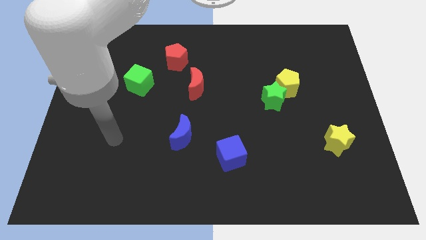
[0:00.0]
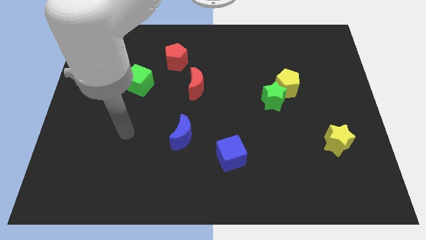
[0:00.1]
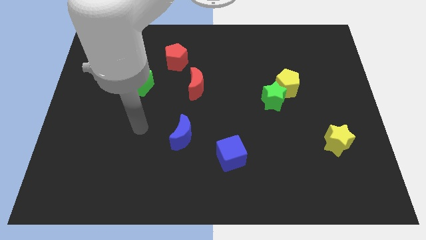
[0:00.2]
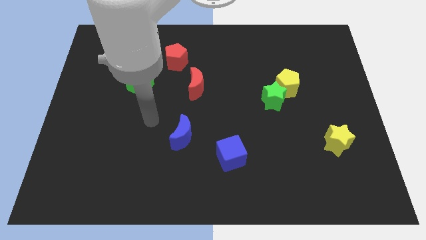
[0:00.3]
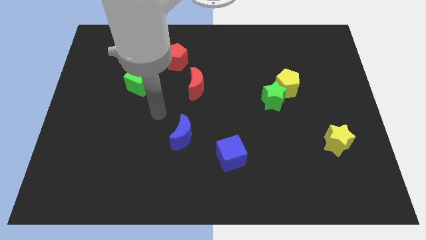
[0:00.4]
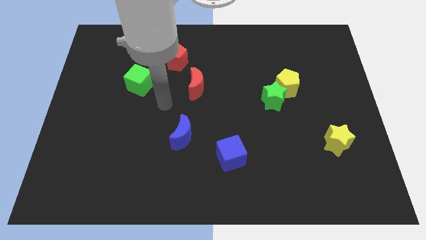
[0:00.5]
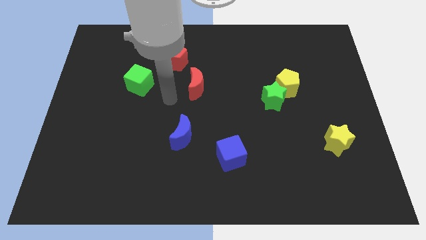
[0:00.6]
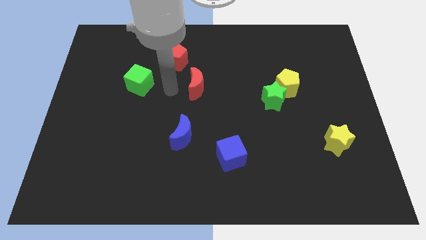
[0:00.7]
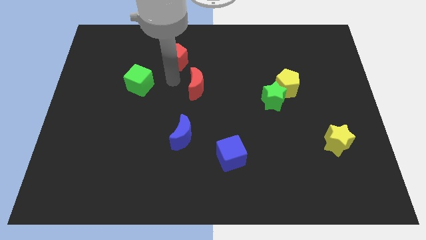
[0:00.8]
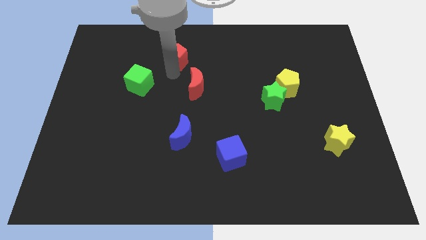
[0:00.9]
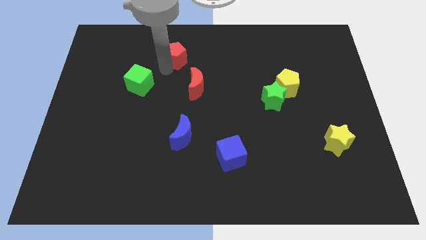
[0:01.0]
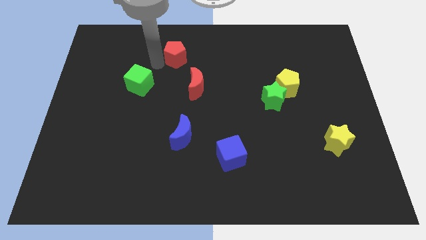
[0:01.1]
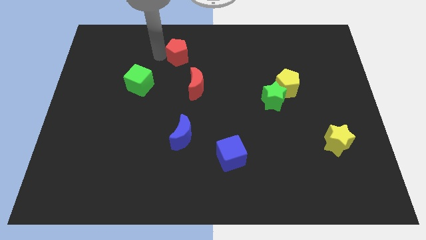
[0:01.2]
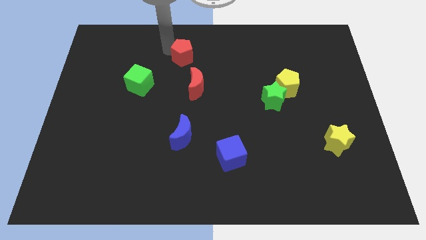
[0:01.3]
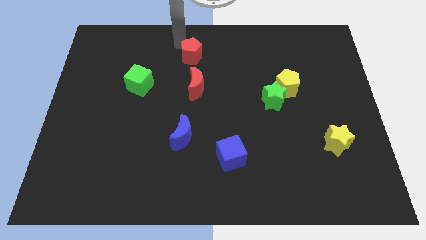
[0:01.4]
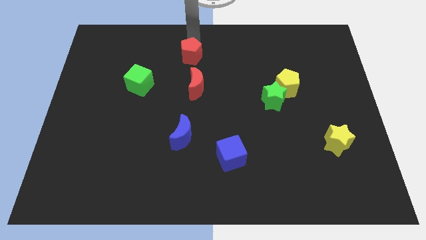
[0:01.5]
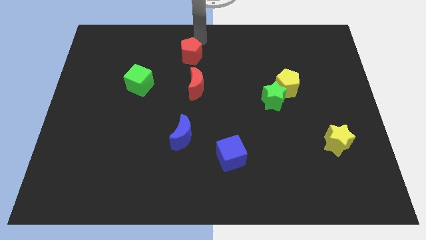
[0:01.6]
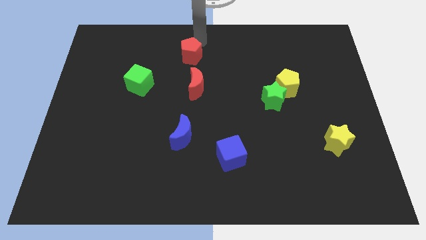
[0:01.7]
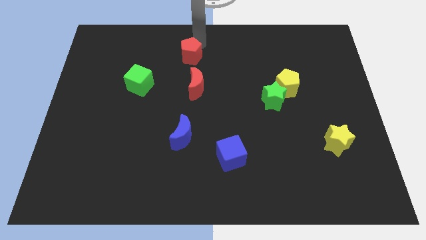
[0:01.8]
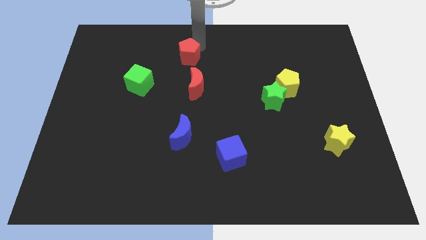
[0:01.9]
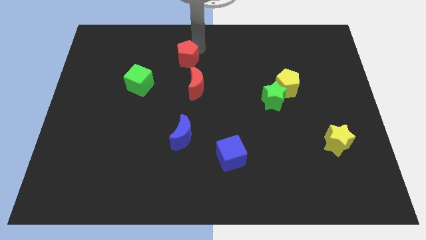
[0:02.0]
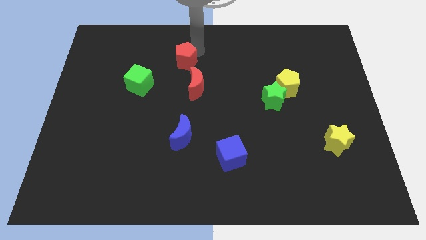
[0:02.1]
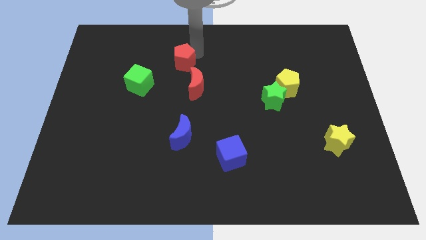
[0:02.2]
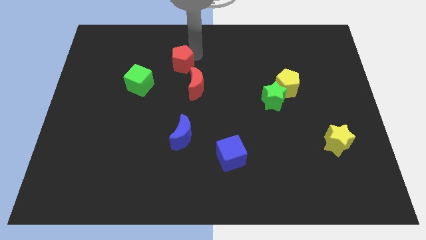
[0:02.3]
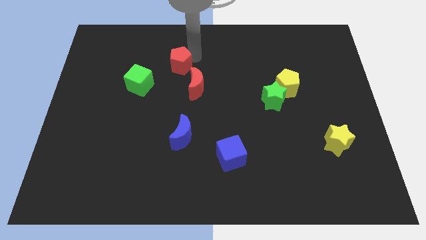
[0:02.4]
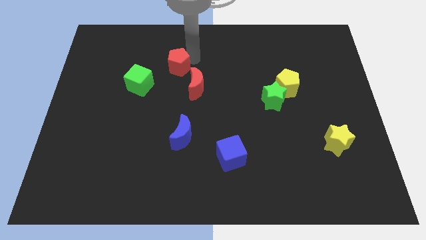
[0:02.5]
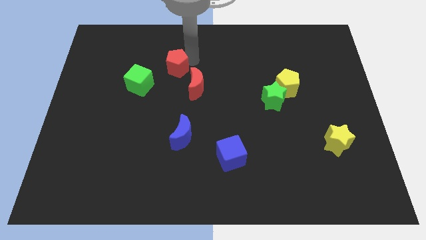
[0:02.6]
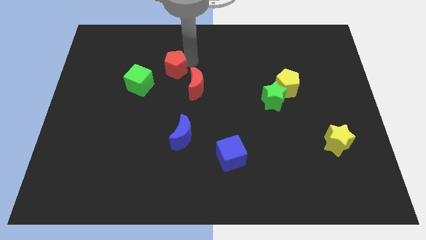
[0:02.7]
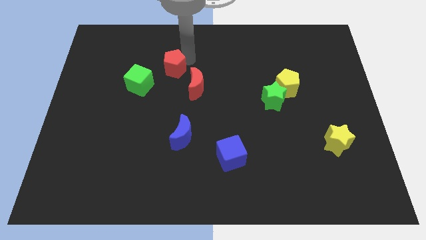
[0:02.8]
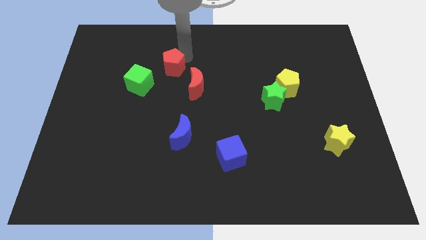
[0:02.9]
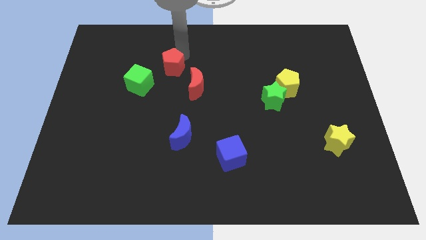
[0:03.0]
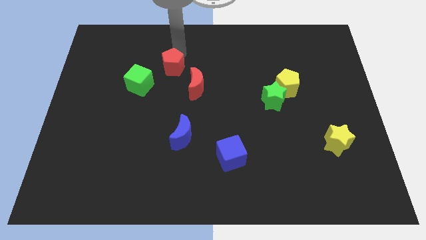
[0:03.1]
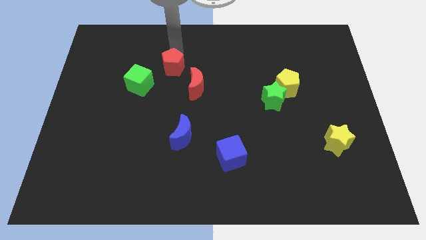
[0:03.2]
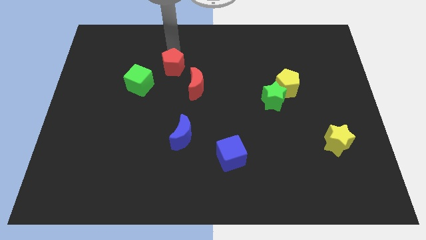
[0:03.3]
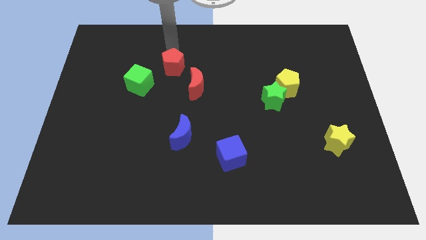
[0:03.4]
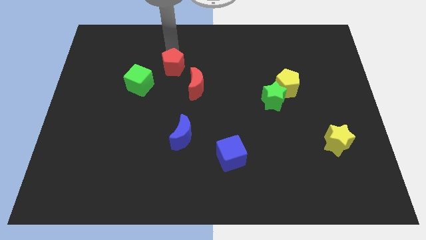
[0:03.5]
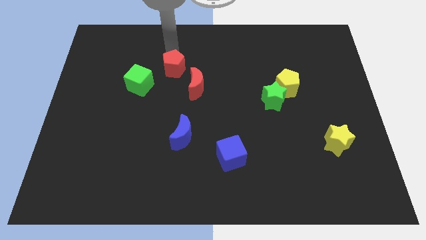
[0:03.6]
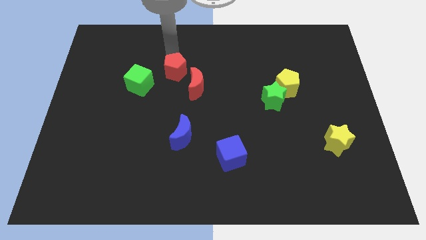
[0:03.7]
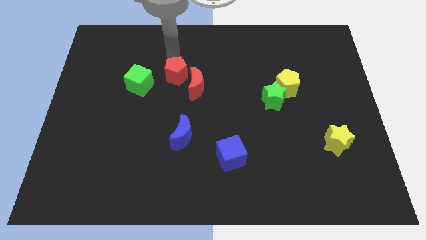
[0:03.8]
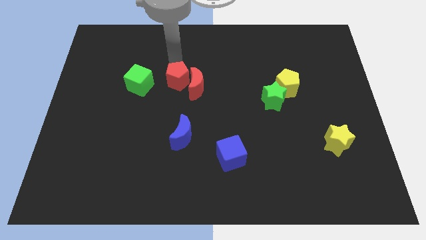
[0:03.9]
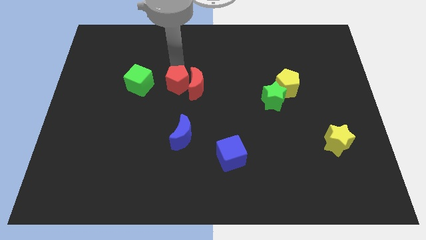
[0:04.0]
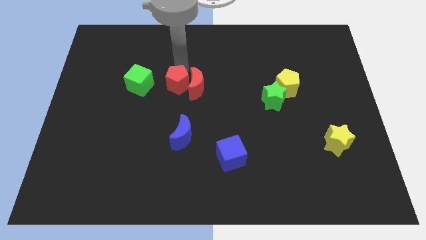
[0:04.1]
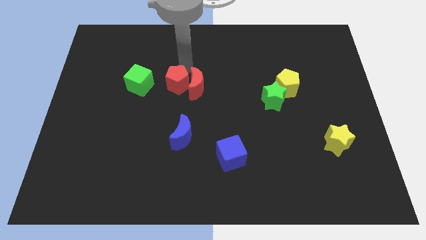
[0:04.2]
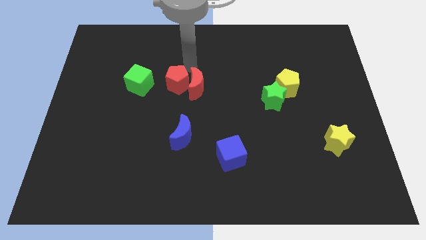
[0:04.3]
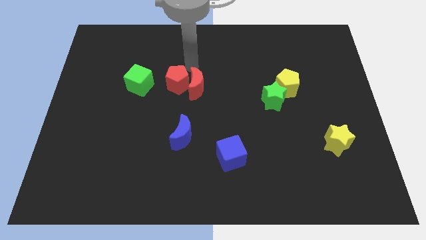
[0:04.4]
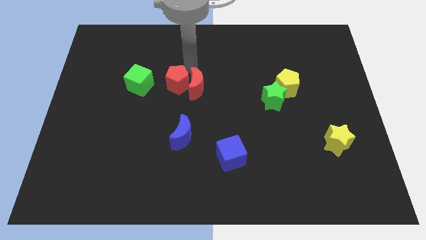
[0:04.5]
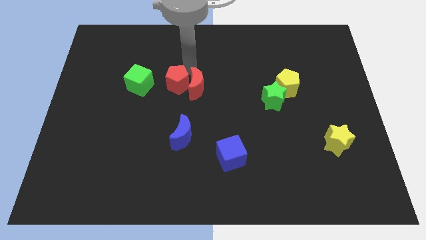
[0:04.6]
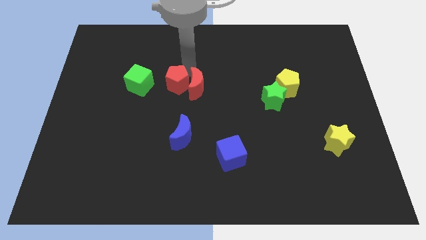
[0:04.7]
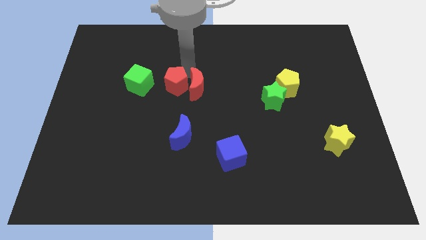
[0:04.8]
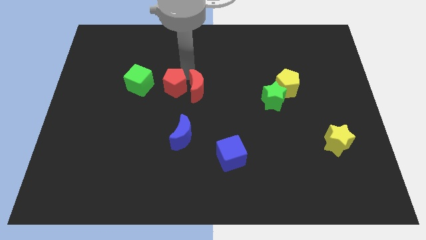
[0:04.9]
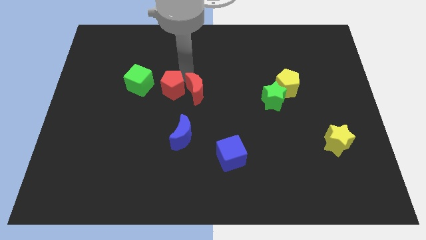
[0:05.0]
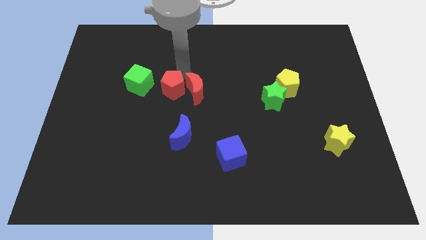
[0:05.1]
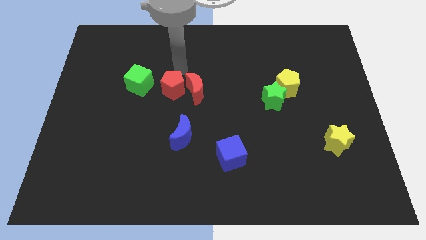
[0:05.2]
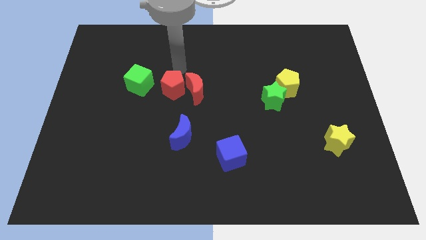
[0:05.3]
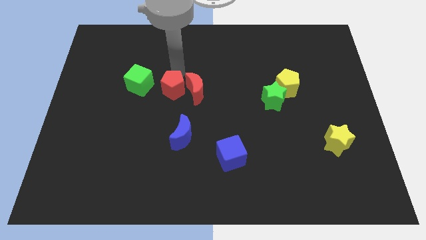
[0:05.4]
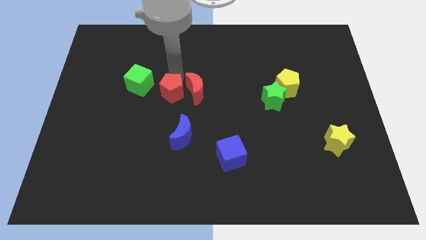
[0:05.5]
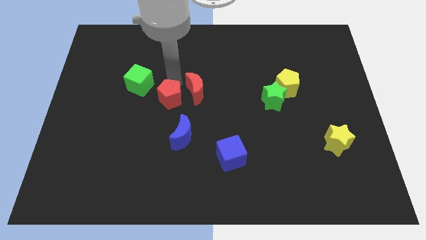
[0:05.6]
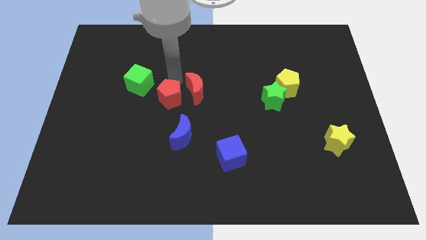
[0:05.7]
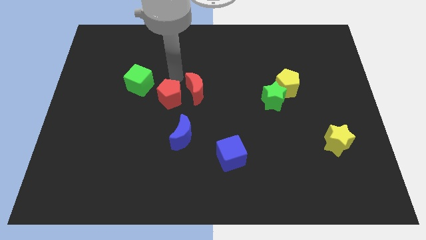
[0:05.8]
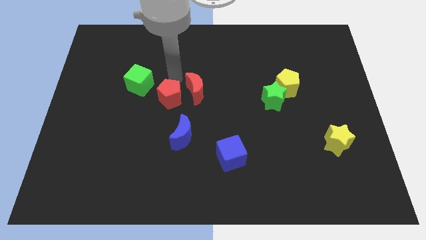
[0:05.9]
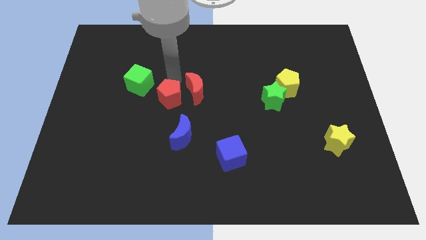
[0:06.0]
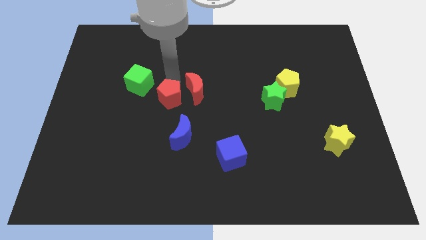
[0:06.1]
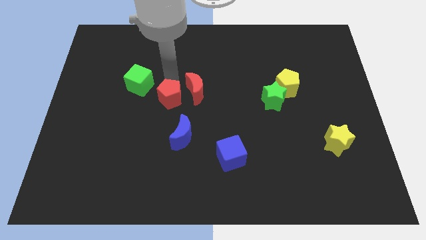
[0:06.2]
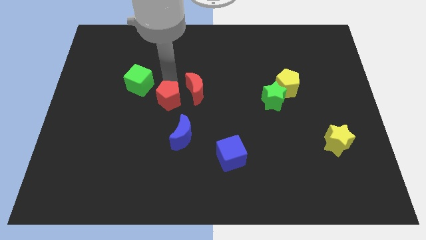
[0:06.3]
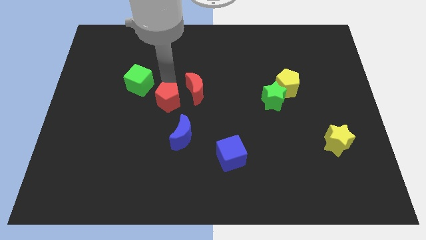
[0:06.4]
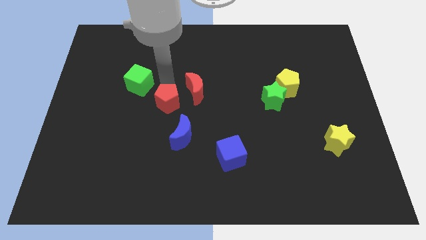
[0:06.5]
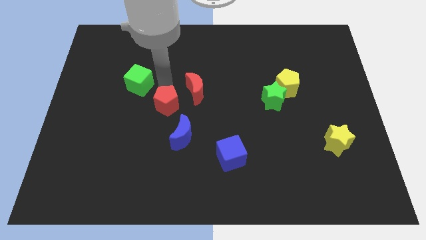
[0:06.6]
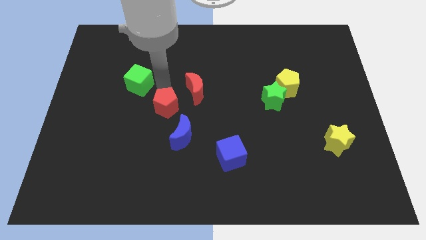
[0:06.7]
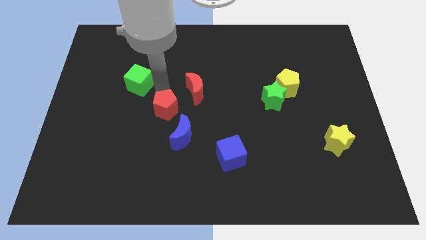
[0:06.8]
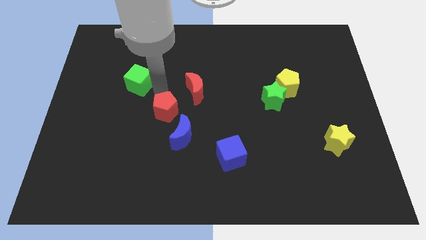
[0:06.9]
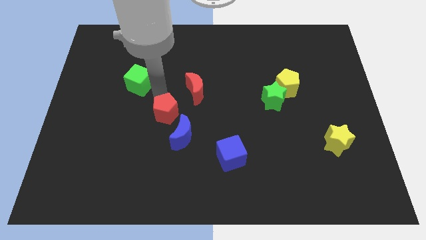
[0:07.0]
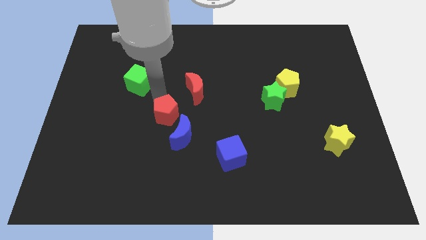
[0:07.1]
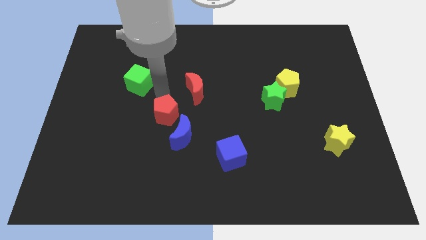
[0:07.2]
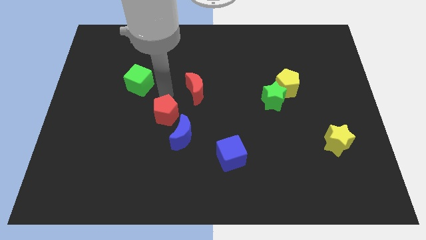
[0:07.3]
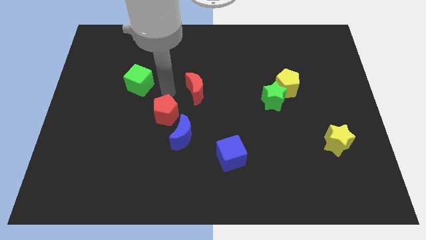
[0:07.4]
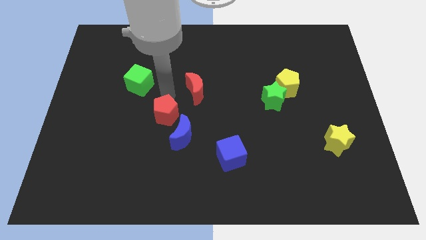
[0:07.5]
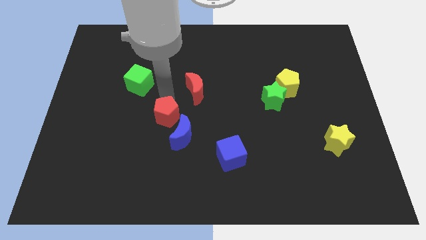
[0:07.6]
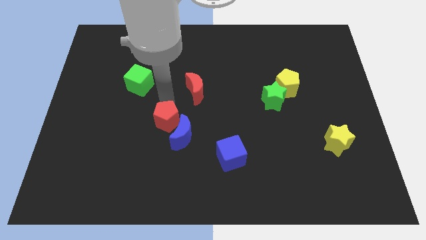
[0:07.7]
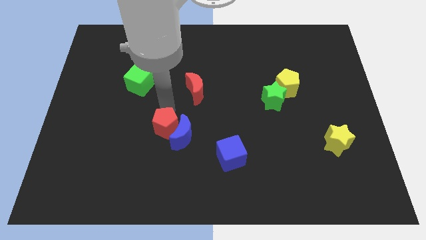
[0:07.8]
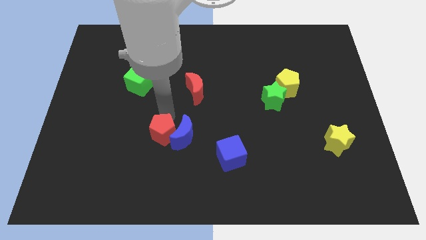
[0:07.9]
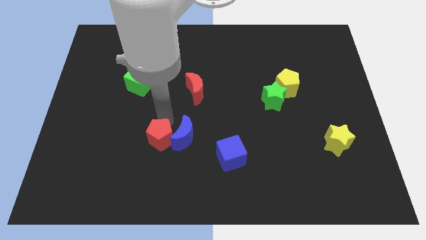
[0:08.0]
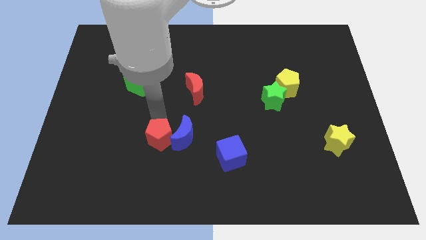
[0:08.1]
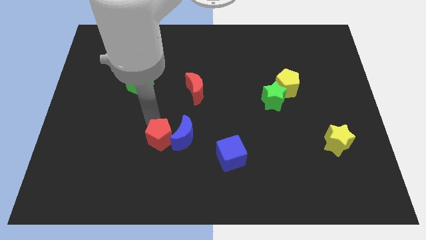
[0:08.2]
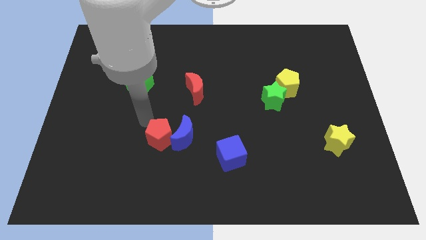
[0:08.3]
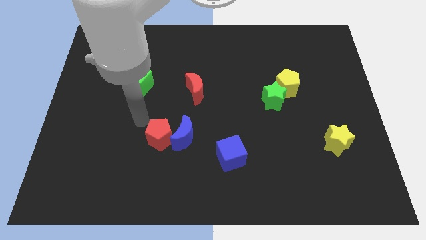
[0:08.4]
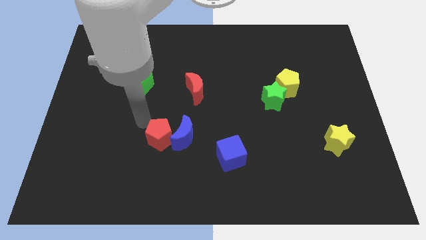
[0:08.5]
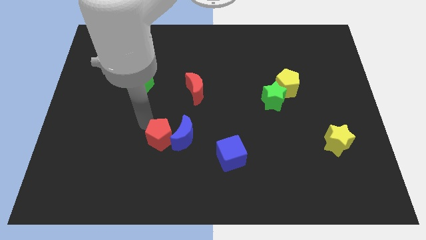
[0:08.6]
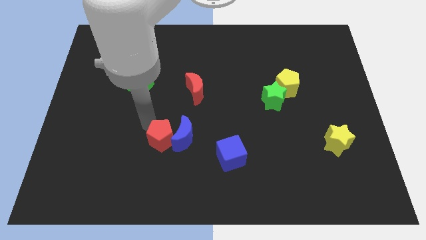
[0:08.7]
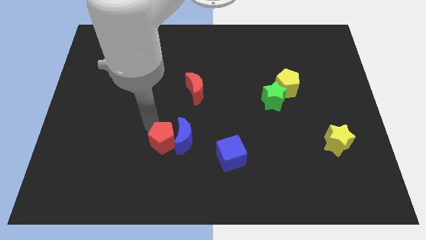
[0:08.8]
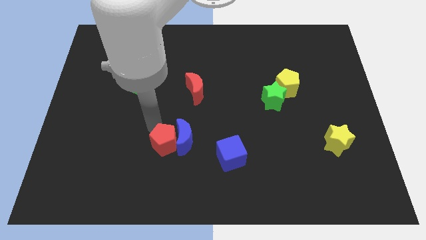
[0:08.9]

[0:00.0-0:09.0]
move the red pentagon to the left of the blue cube
